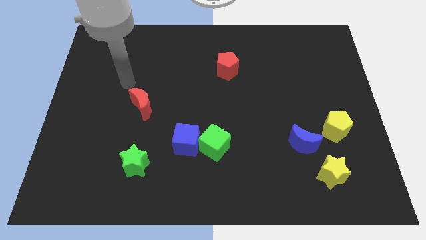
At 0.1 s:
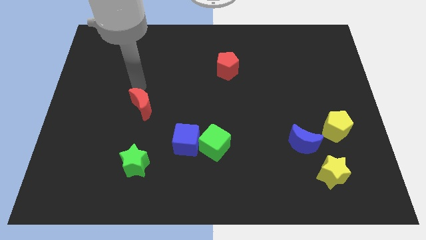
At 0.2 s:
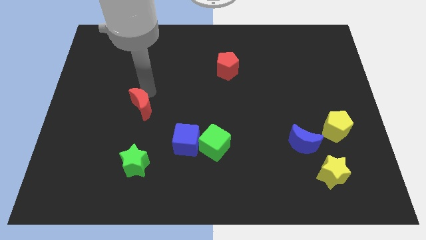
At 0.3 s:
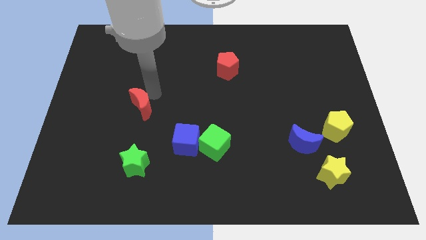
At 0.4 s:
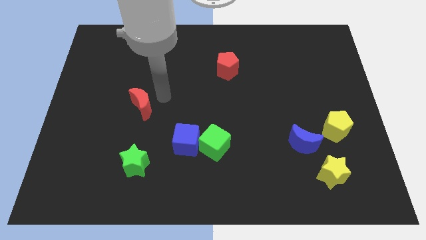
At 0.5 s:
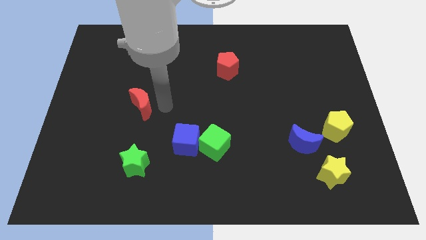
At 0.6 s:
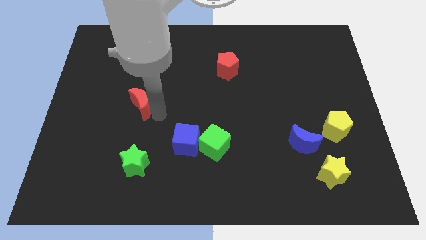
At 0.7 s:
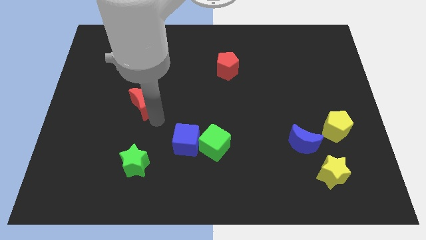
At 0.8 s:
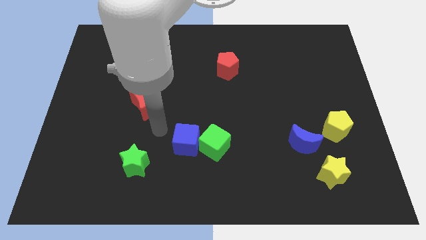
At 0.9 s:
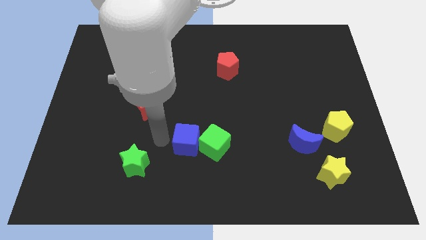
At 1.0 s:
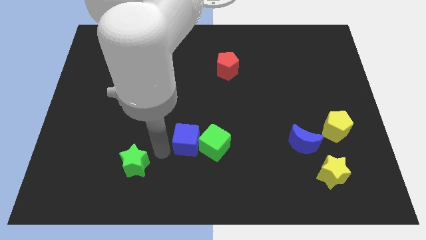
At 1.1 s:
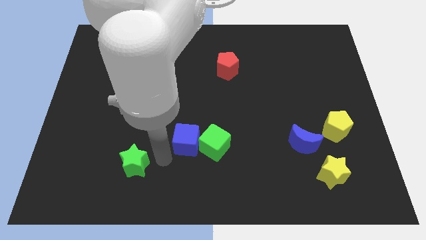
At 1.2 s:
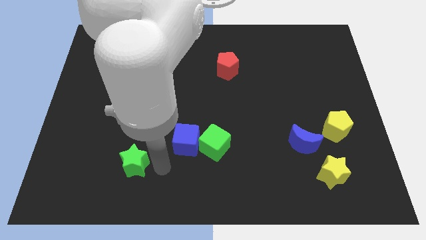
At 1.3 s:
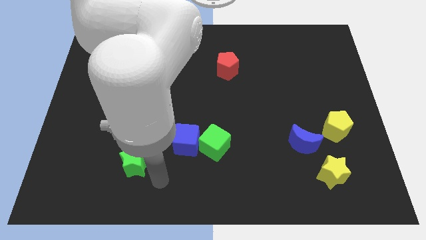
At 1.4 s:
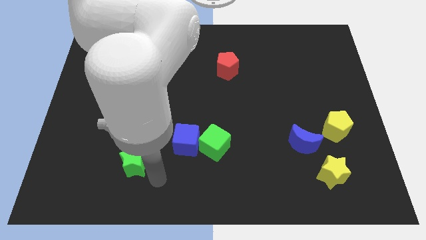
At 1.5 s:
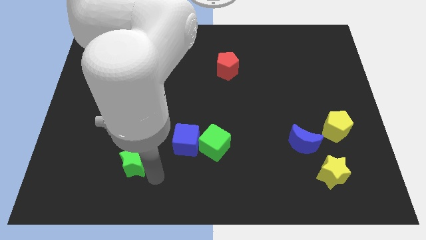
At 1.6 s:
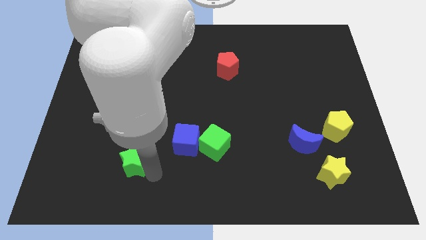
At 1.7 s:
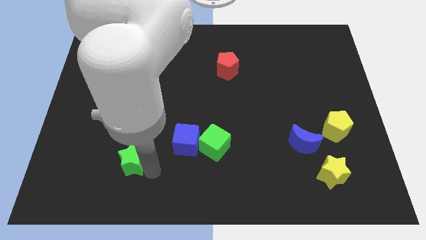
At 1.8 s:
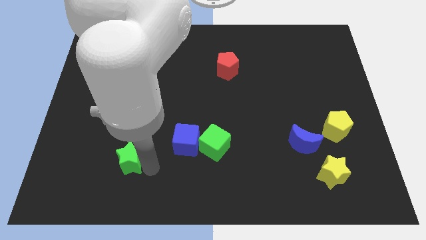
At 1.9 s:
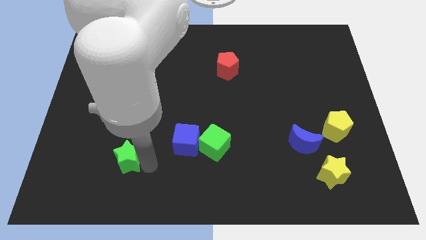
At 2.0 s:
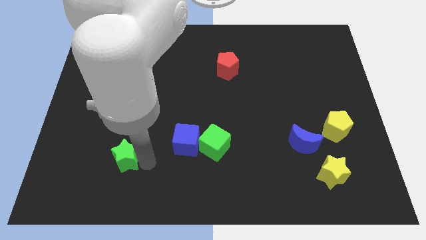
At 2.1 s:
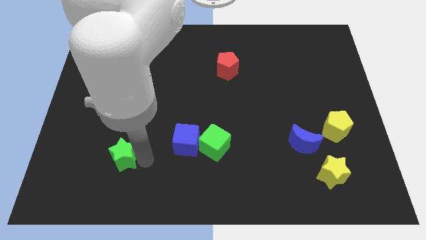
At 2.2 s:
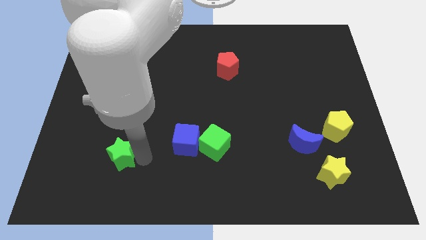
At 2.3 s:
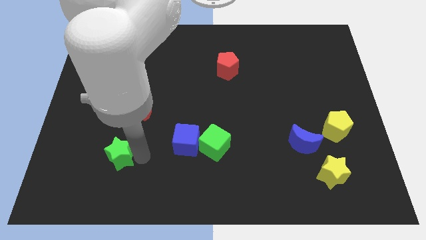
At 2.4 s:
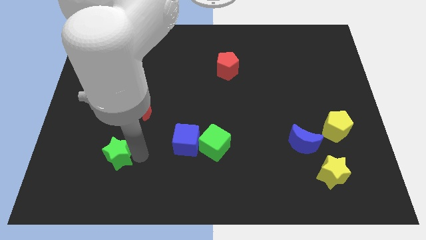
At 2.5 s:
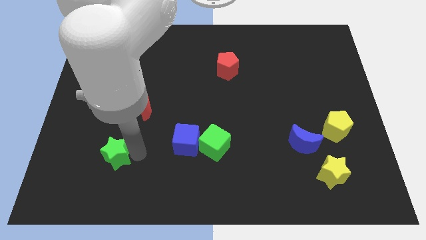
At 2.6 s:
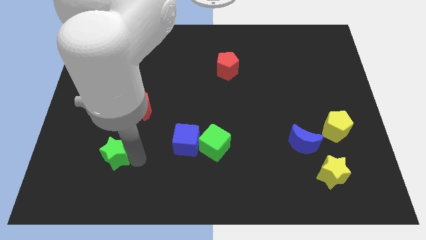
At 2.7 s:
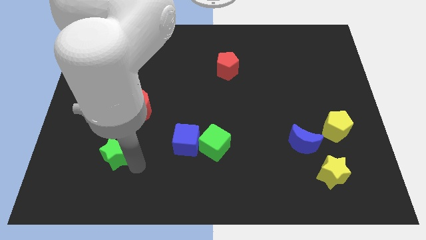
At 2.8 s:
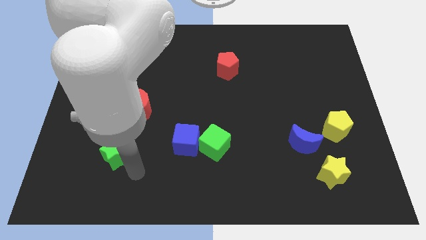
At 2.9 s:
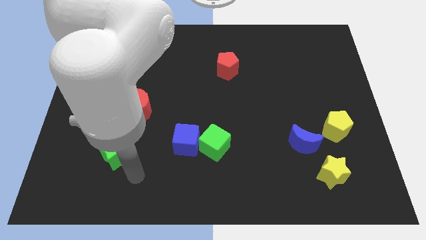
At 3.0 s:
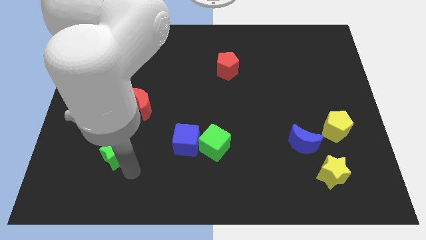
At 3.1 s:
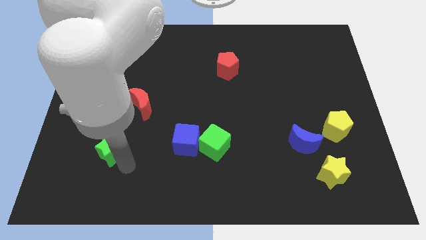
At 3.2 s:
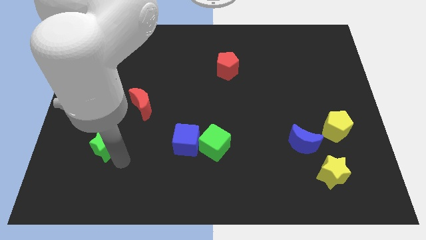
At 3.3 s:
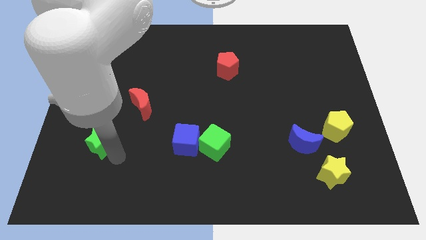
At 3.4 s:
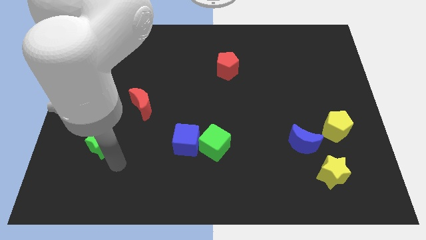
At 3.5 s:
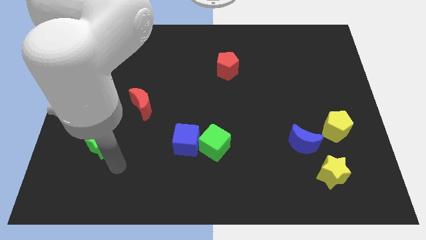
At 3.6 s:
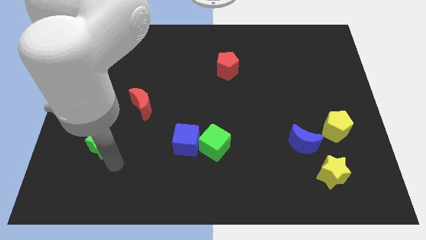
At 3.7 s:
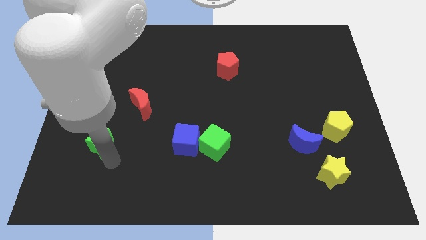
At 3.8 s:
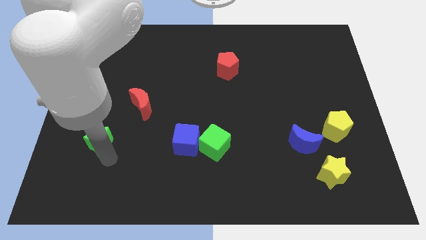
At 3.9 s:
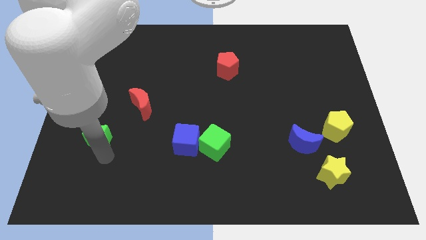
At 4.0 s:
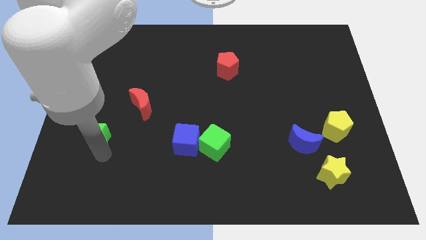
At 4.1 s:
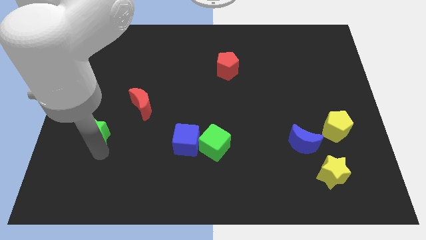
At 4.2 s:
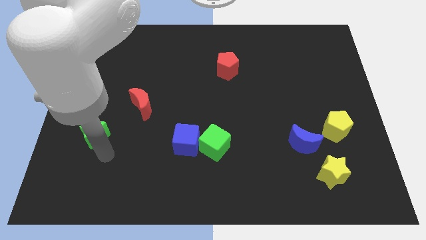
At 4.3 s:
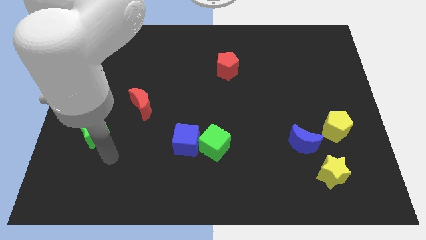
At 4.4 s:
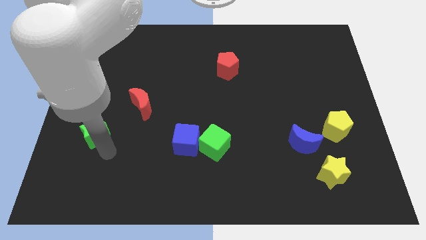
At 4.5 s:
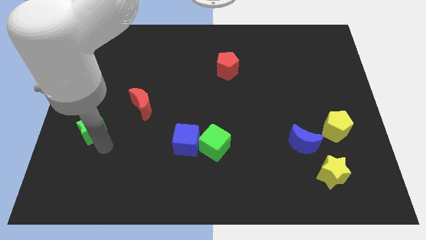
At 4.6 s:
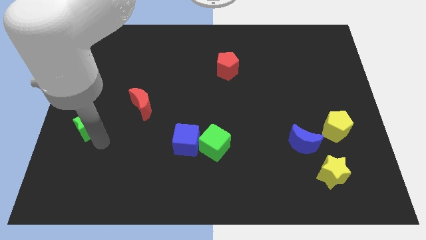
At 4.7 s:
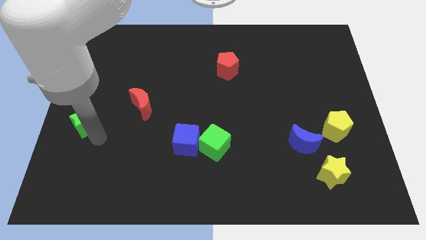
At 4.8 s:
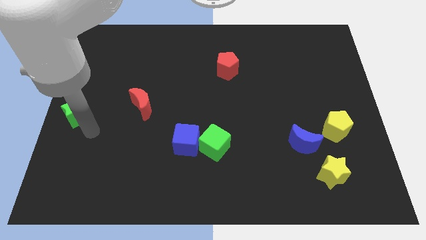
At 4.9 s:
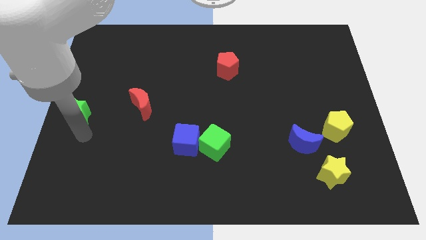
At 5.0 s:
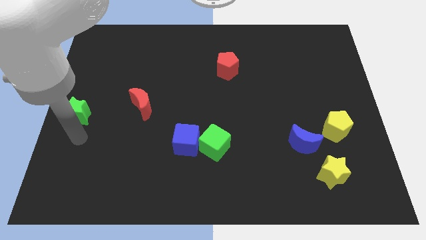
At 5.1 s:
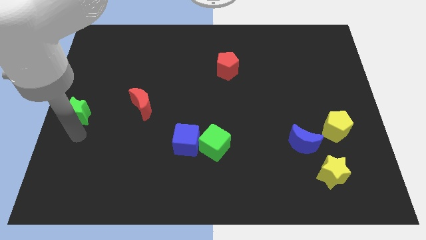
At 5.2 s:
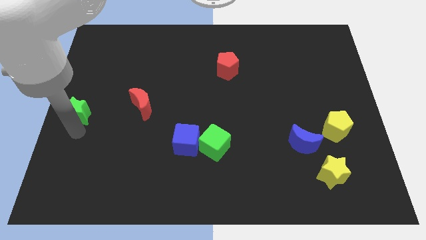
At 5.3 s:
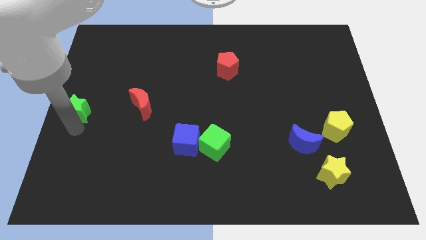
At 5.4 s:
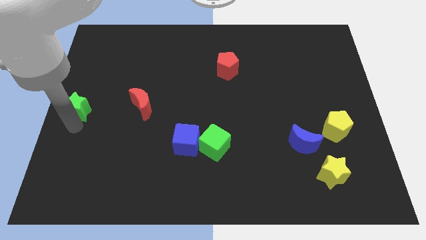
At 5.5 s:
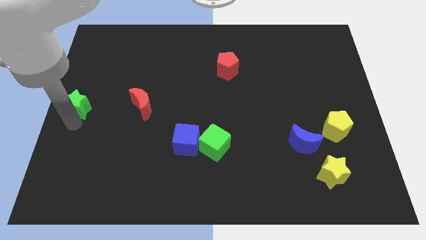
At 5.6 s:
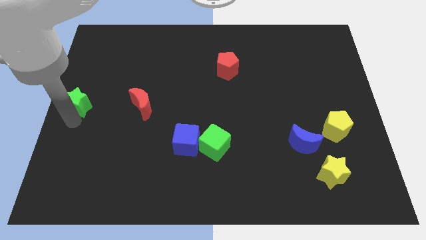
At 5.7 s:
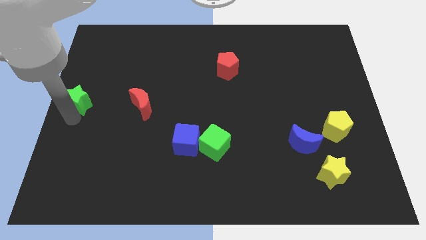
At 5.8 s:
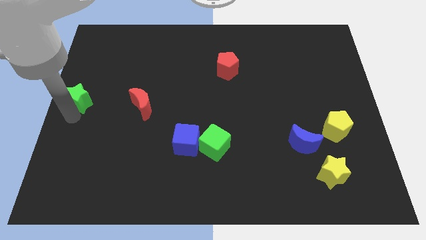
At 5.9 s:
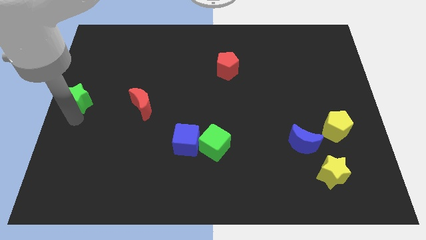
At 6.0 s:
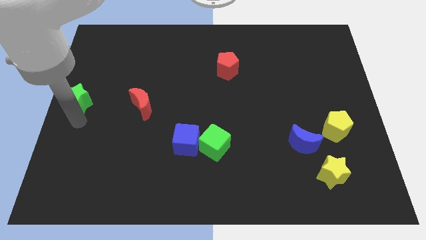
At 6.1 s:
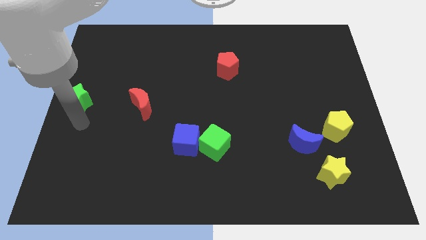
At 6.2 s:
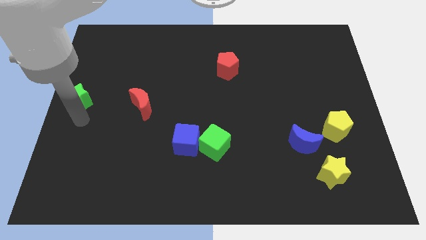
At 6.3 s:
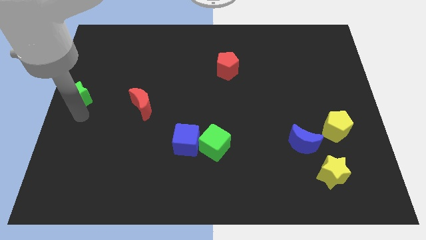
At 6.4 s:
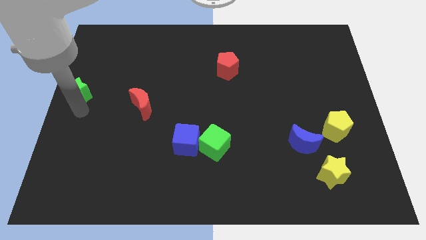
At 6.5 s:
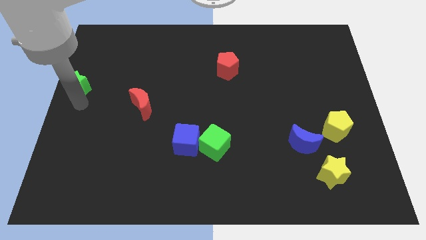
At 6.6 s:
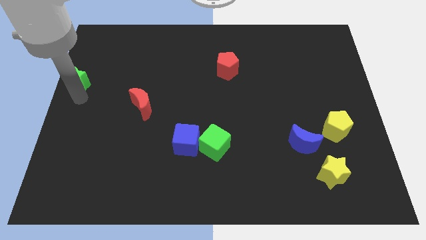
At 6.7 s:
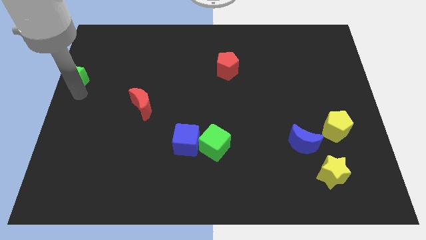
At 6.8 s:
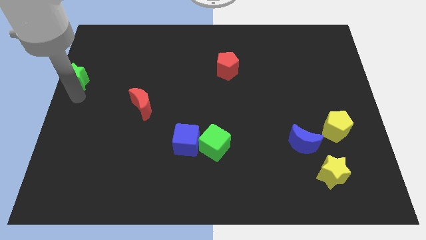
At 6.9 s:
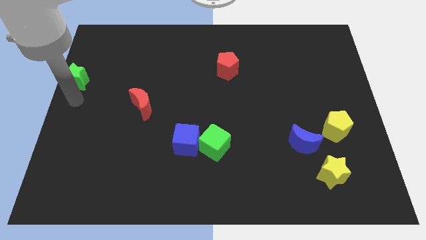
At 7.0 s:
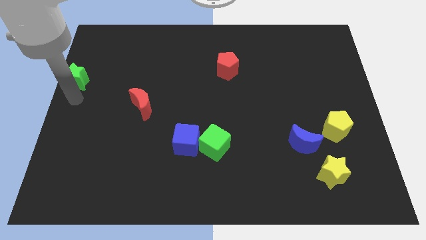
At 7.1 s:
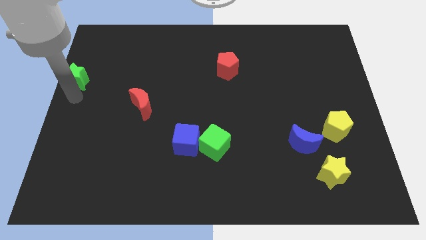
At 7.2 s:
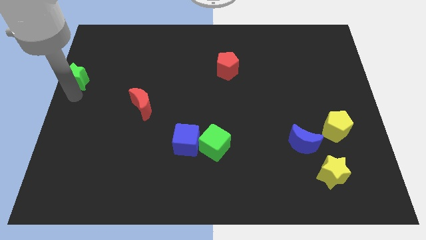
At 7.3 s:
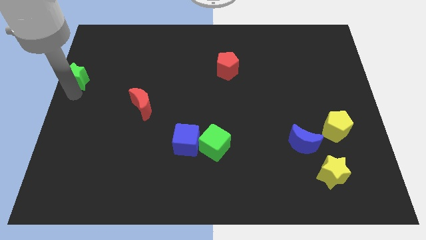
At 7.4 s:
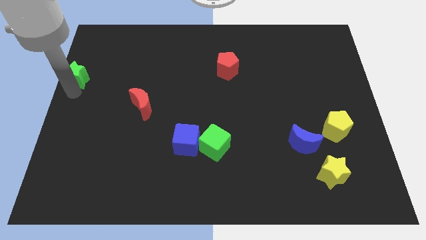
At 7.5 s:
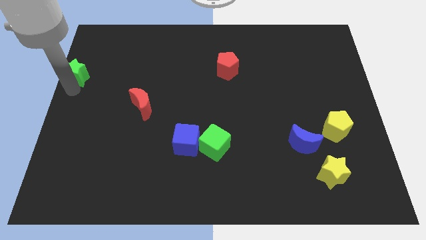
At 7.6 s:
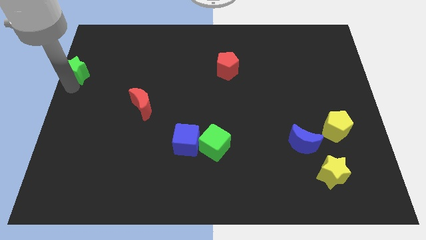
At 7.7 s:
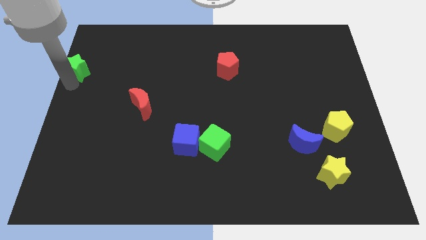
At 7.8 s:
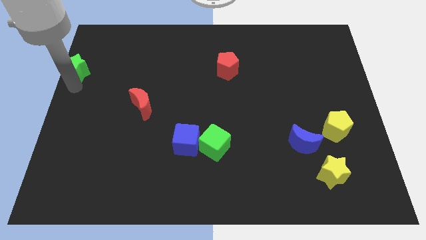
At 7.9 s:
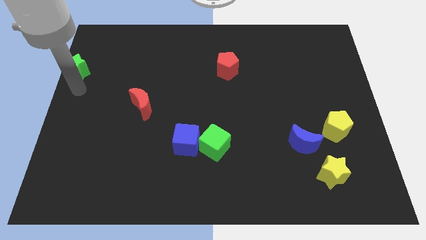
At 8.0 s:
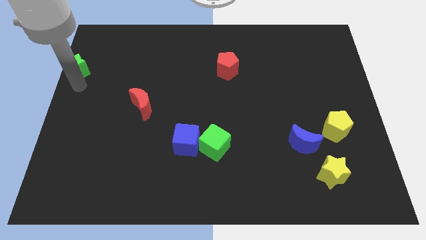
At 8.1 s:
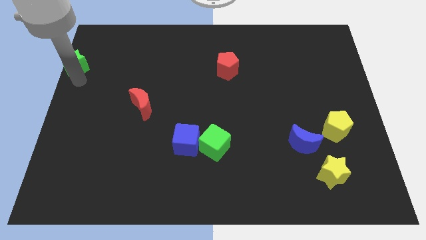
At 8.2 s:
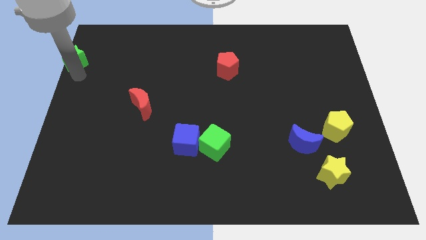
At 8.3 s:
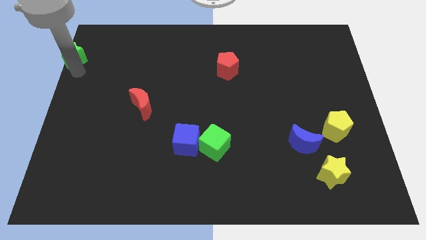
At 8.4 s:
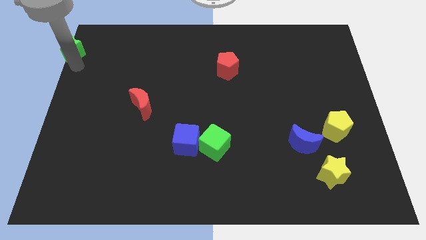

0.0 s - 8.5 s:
slide the green star to the top left of the board
